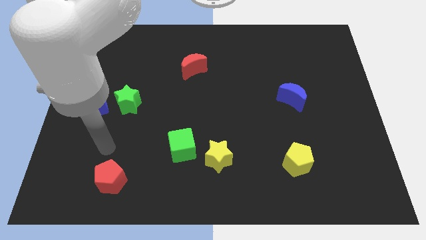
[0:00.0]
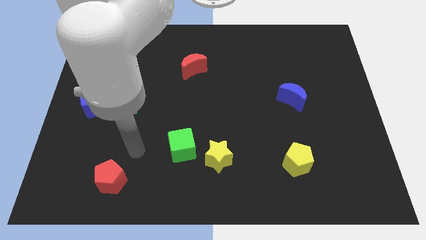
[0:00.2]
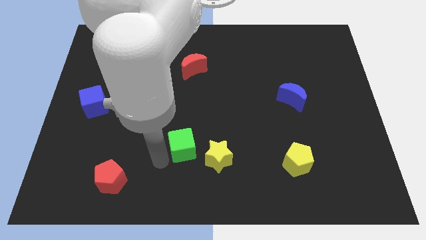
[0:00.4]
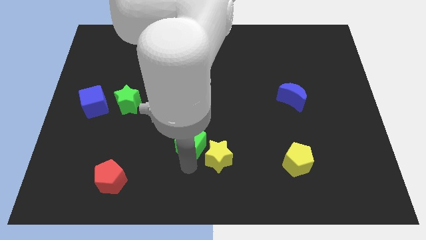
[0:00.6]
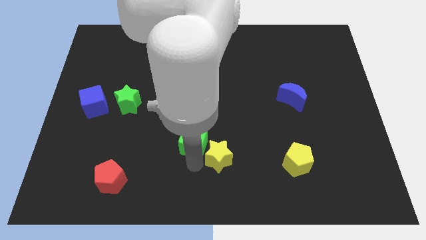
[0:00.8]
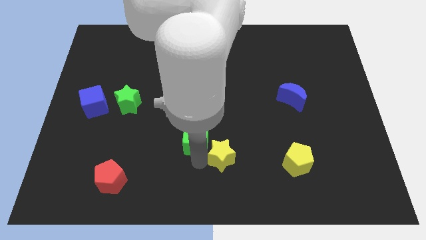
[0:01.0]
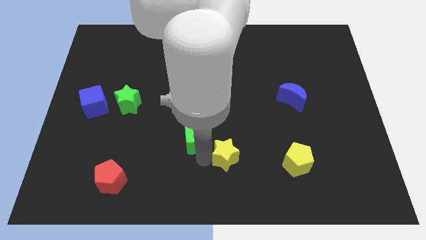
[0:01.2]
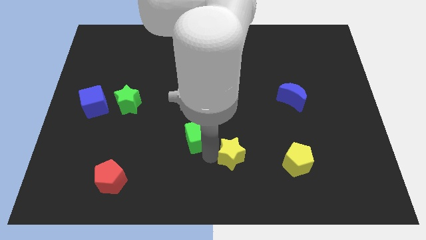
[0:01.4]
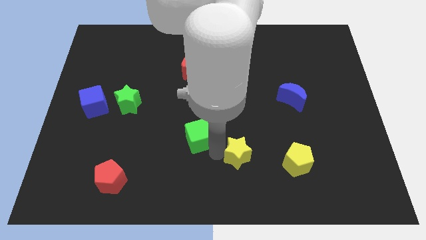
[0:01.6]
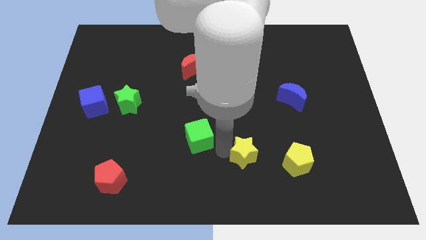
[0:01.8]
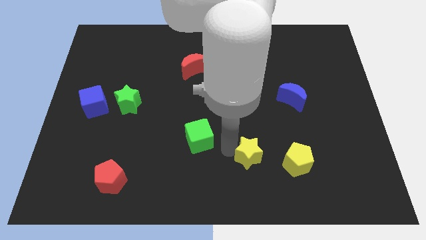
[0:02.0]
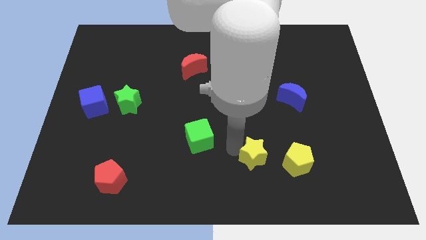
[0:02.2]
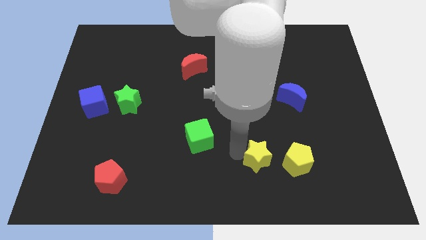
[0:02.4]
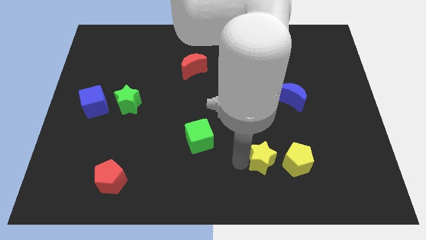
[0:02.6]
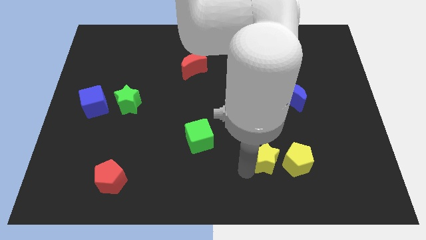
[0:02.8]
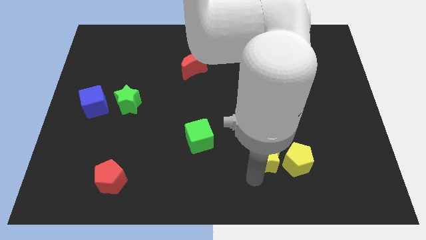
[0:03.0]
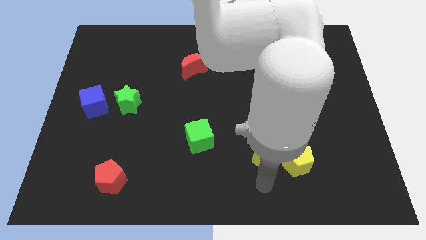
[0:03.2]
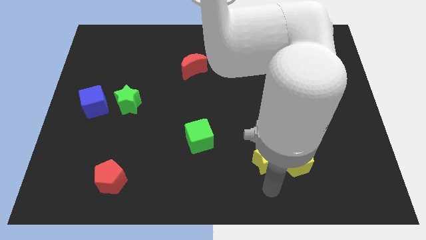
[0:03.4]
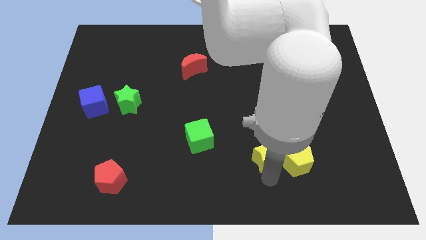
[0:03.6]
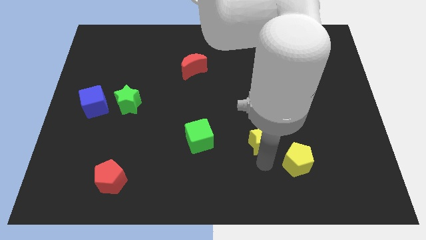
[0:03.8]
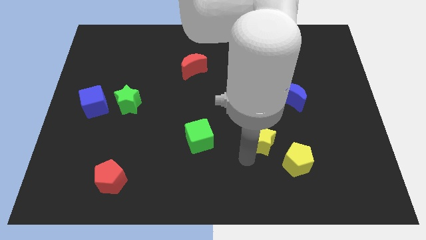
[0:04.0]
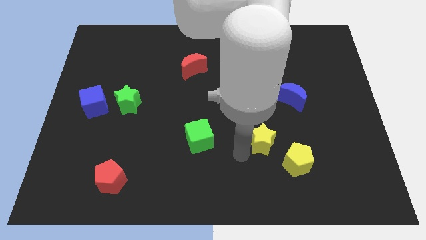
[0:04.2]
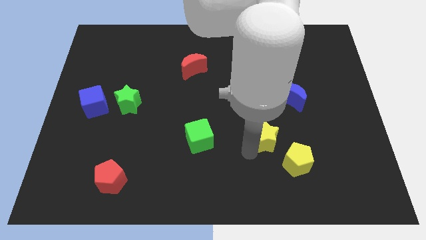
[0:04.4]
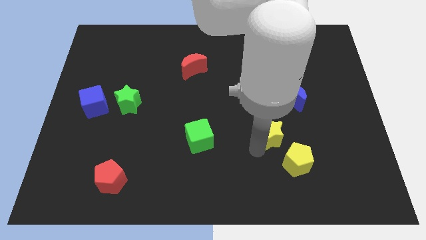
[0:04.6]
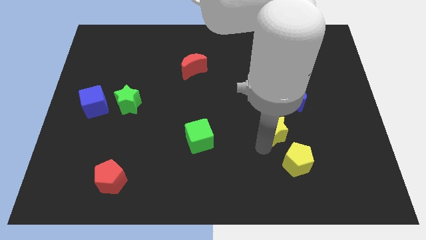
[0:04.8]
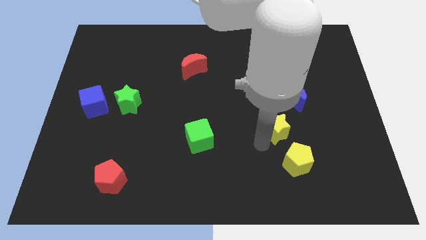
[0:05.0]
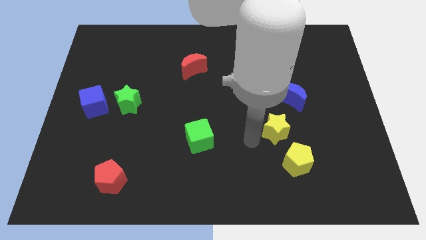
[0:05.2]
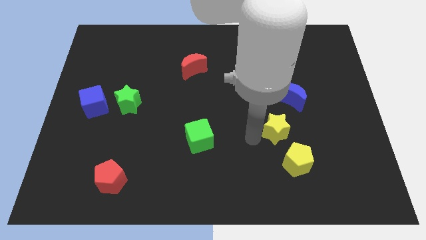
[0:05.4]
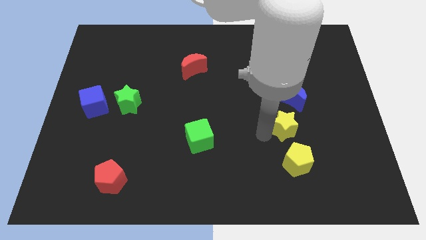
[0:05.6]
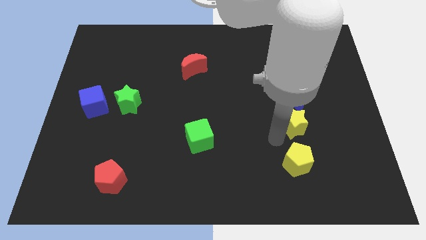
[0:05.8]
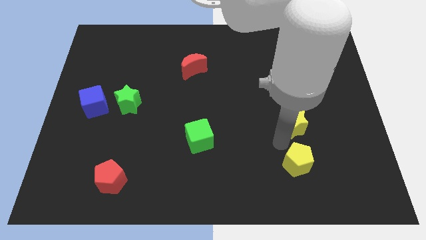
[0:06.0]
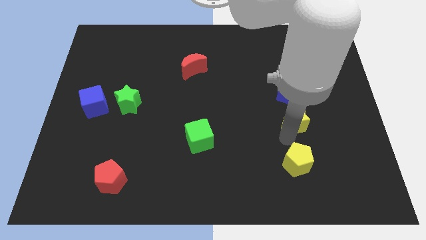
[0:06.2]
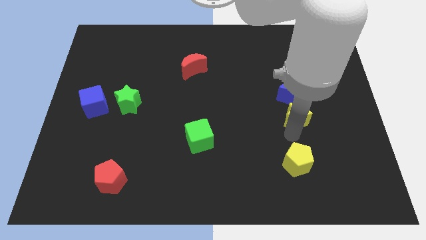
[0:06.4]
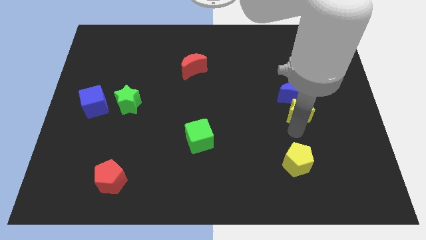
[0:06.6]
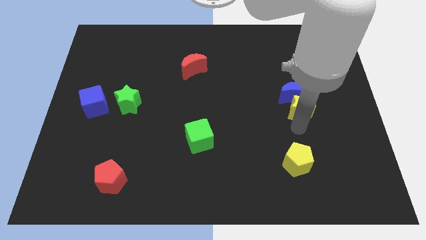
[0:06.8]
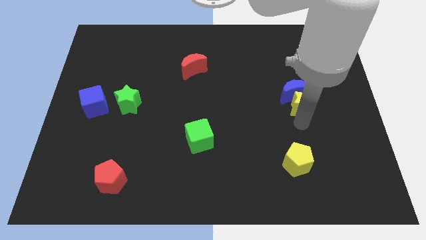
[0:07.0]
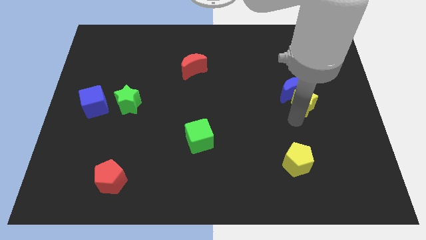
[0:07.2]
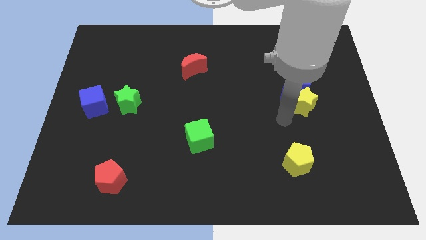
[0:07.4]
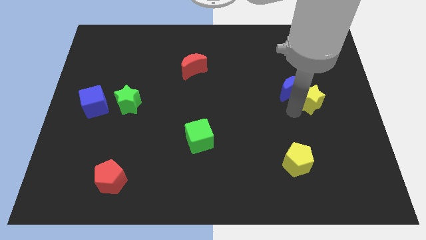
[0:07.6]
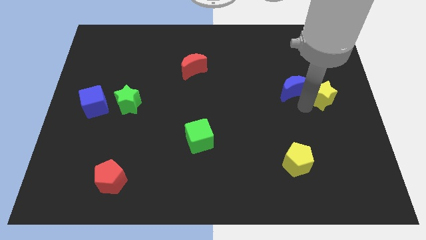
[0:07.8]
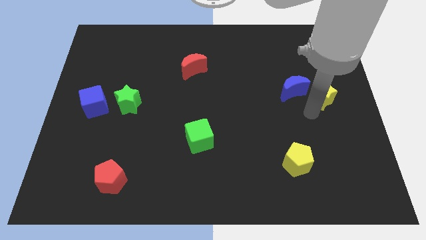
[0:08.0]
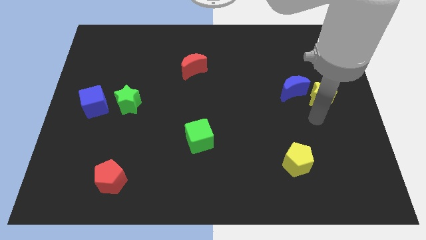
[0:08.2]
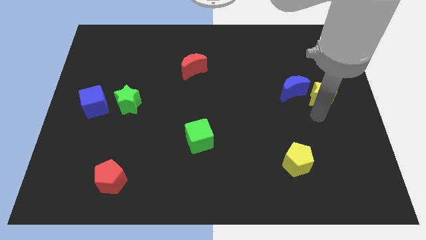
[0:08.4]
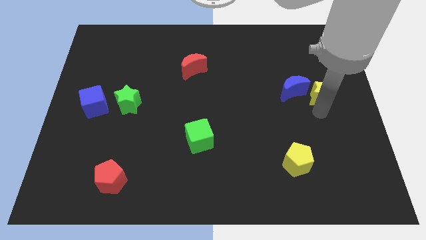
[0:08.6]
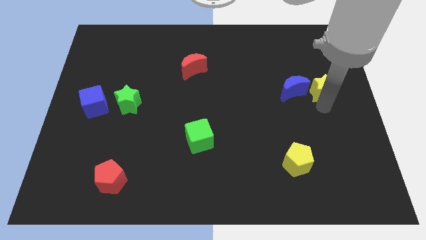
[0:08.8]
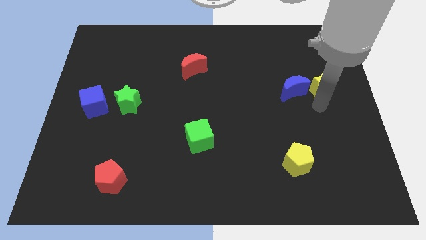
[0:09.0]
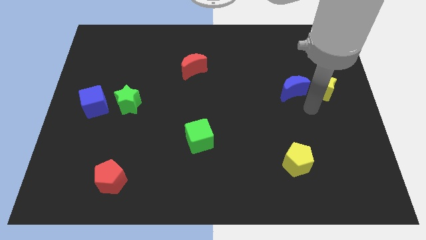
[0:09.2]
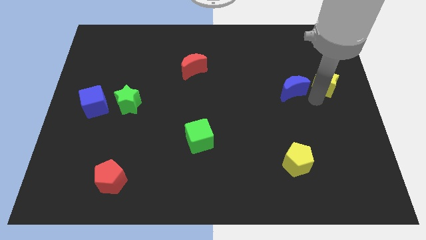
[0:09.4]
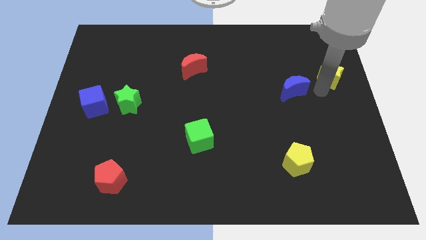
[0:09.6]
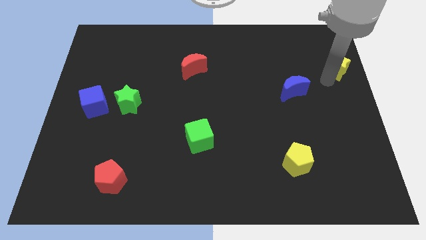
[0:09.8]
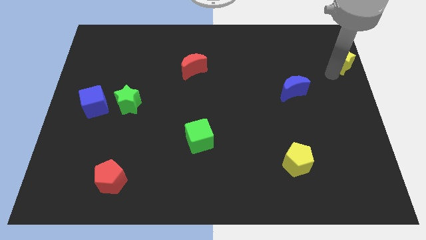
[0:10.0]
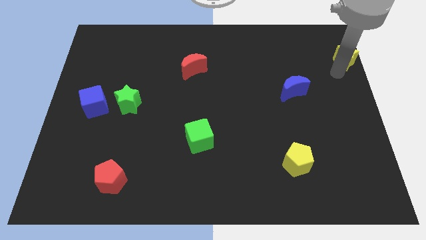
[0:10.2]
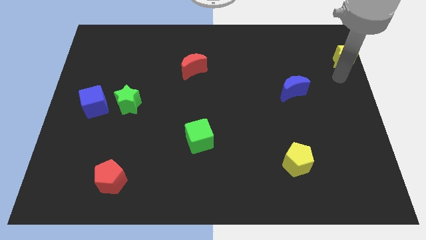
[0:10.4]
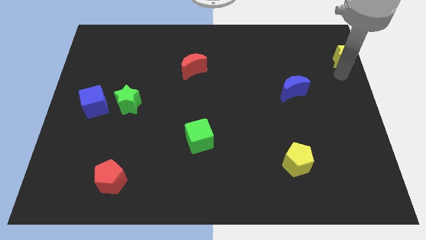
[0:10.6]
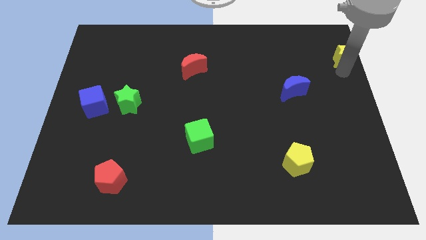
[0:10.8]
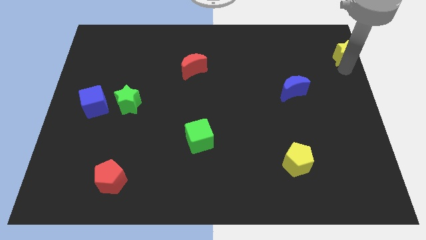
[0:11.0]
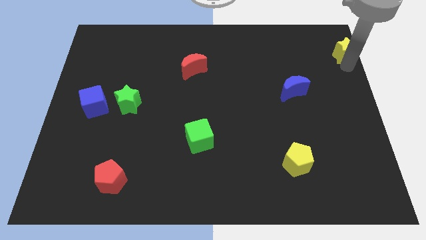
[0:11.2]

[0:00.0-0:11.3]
slide the yellow star to the top right of the board

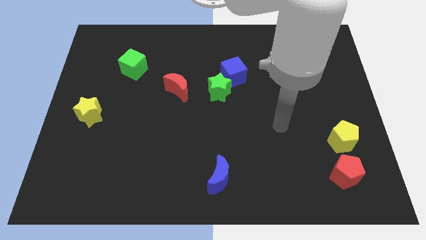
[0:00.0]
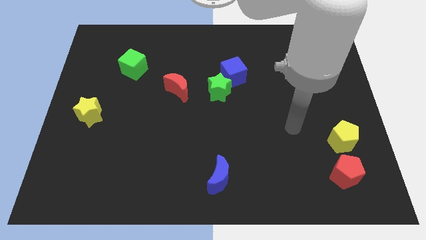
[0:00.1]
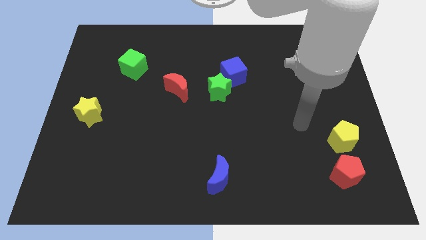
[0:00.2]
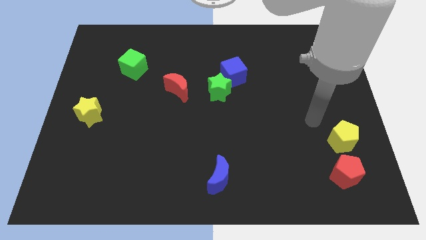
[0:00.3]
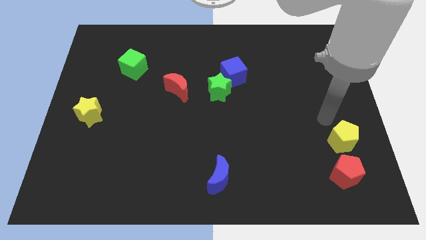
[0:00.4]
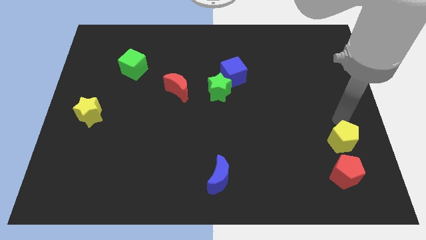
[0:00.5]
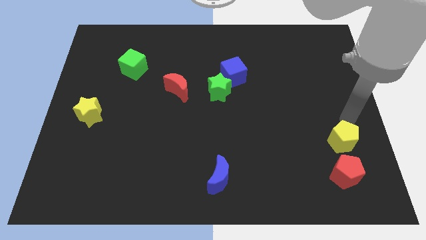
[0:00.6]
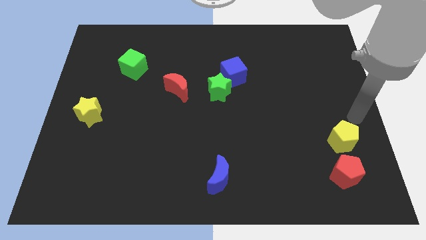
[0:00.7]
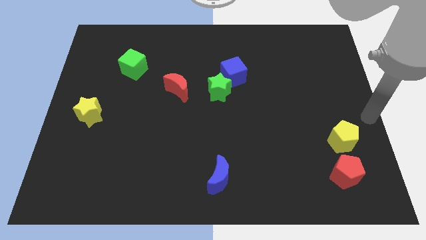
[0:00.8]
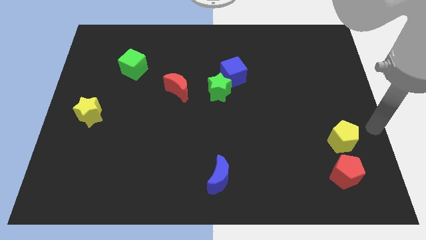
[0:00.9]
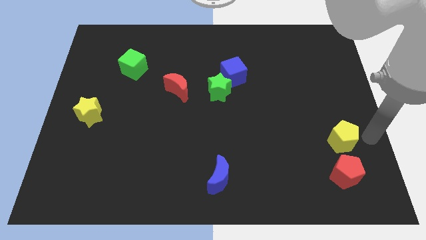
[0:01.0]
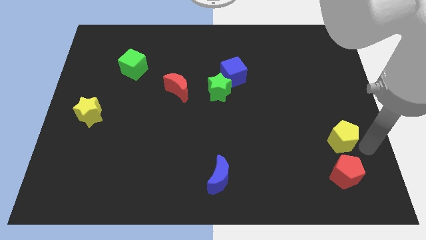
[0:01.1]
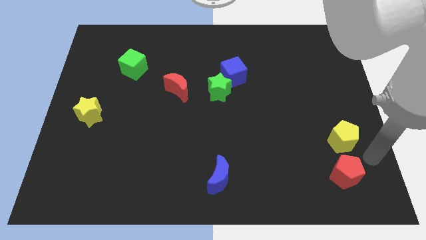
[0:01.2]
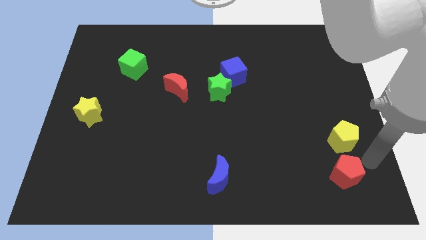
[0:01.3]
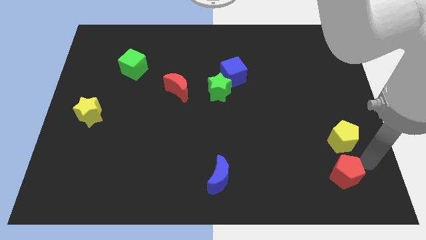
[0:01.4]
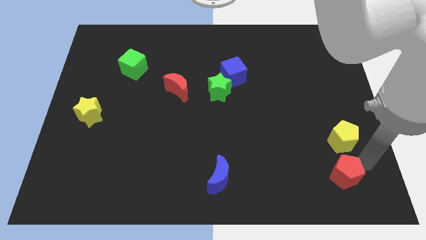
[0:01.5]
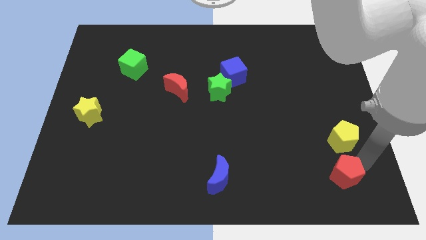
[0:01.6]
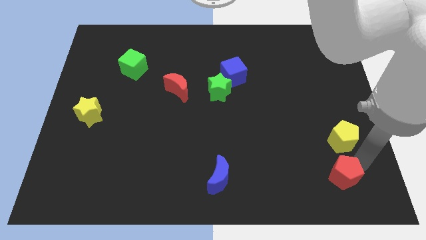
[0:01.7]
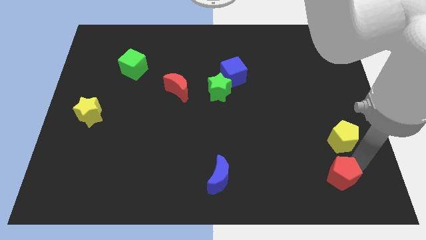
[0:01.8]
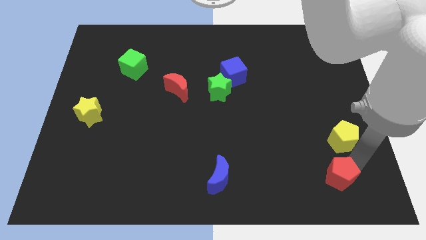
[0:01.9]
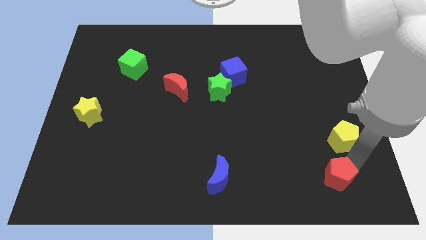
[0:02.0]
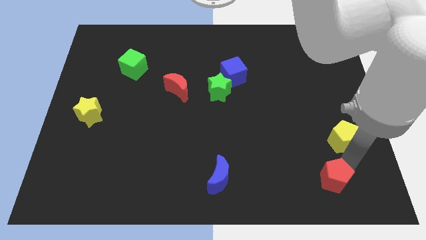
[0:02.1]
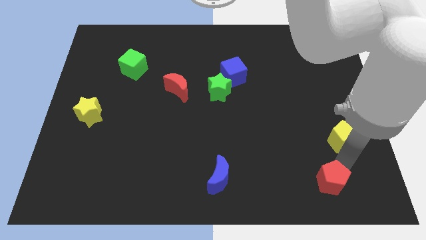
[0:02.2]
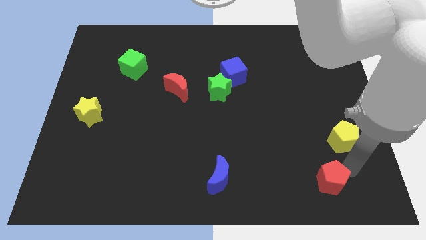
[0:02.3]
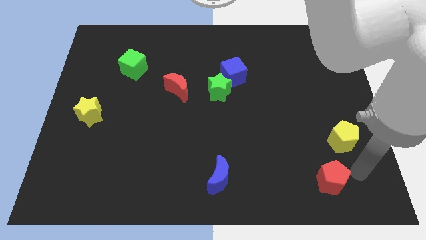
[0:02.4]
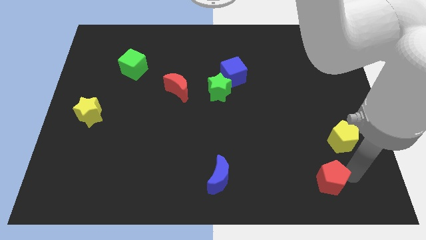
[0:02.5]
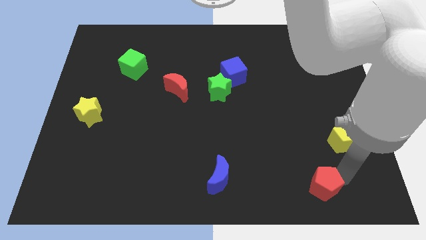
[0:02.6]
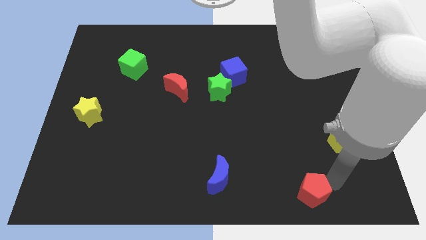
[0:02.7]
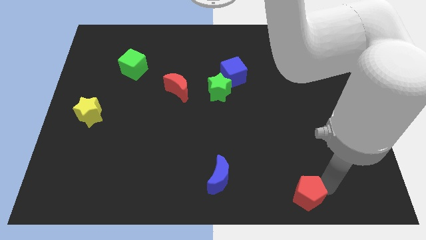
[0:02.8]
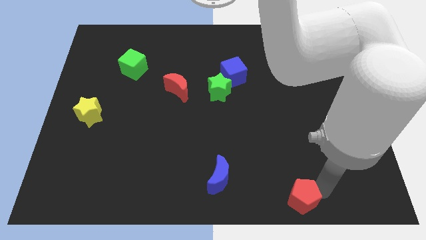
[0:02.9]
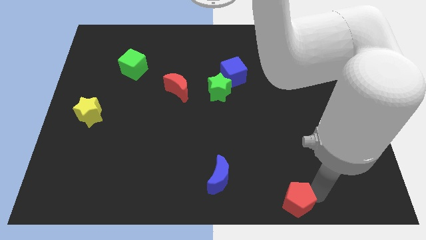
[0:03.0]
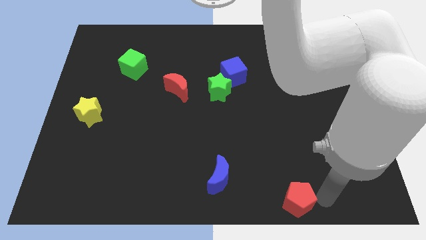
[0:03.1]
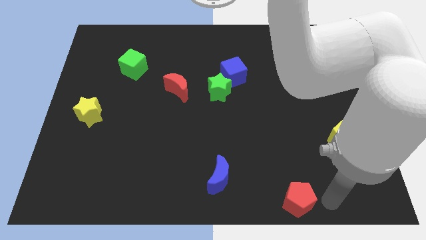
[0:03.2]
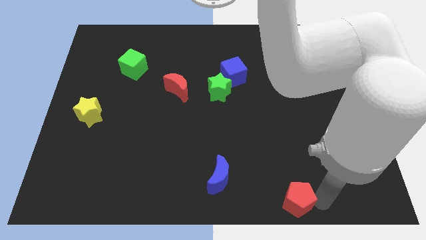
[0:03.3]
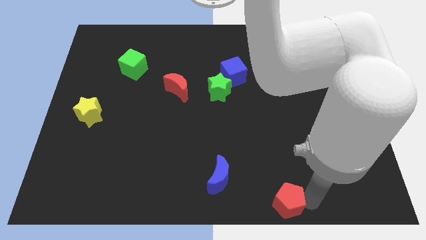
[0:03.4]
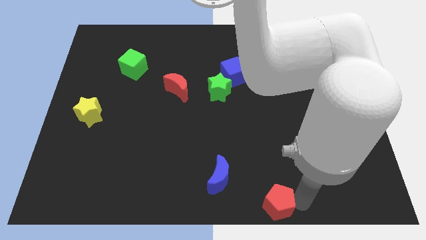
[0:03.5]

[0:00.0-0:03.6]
slide the red pentagon to the bottom
